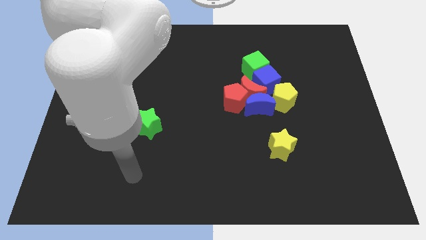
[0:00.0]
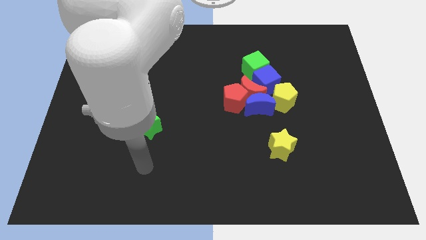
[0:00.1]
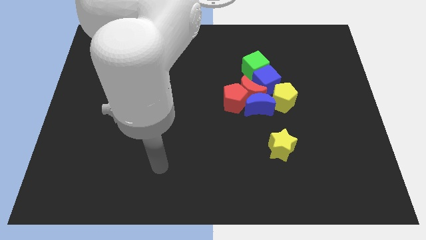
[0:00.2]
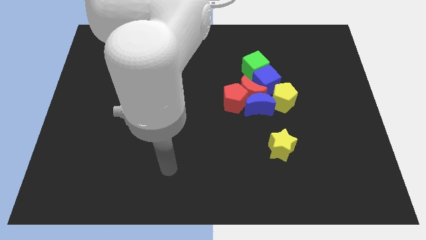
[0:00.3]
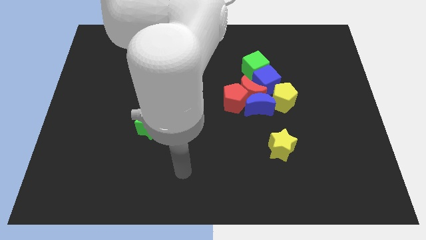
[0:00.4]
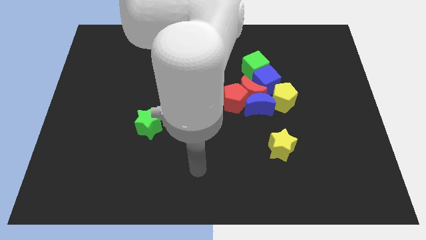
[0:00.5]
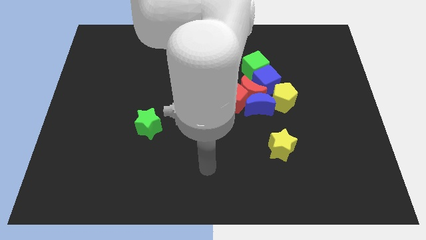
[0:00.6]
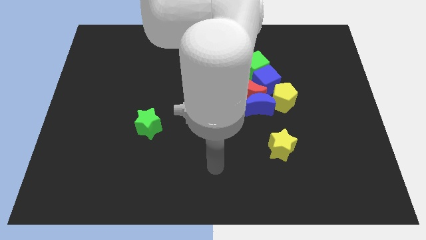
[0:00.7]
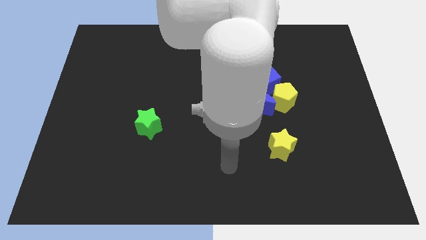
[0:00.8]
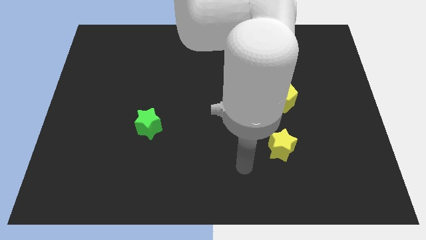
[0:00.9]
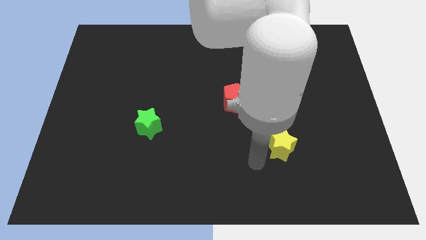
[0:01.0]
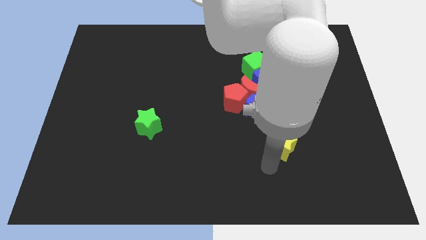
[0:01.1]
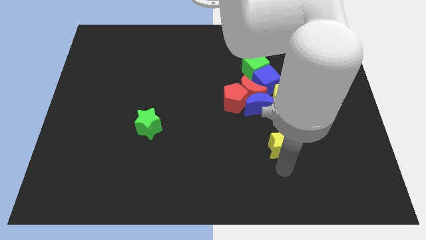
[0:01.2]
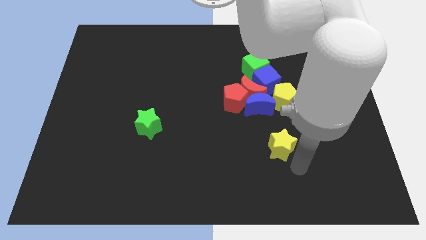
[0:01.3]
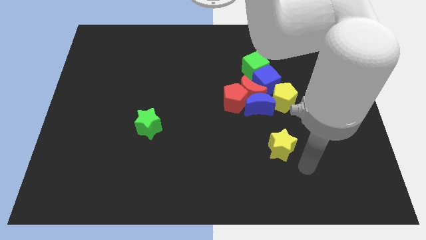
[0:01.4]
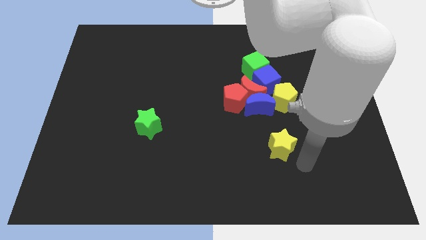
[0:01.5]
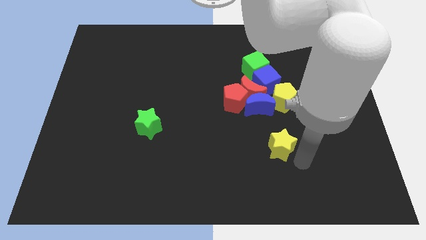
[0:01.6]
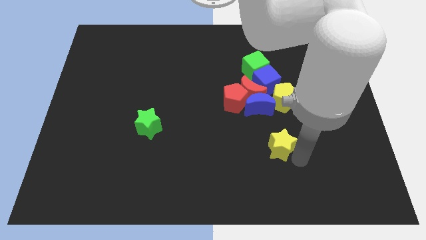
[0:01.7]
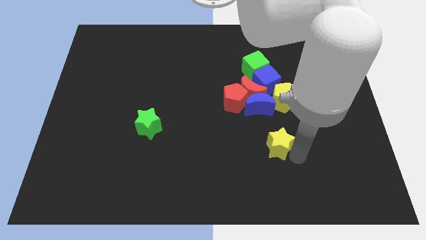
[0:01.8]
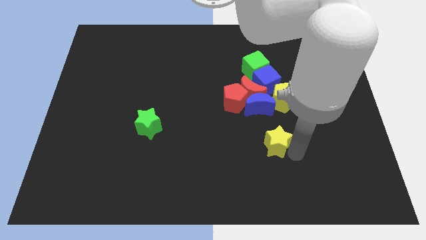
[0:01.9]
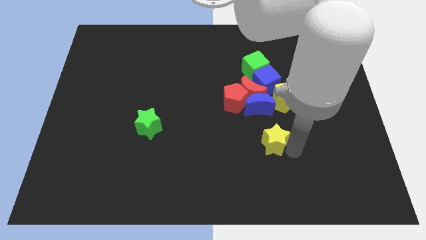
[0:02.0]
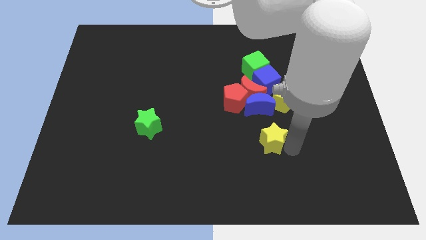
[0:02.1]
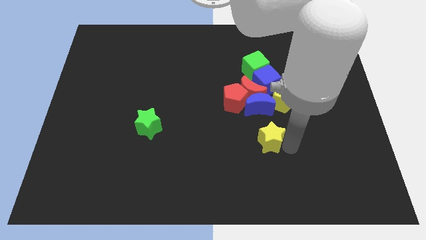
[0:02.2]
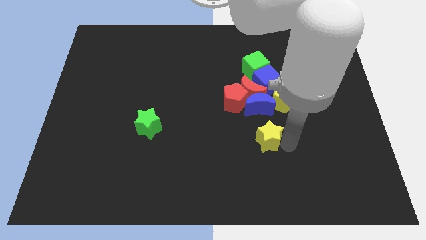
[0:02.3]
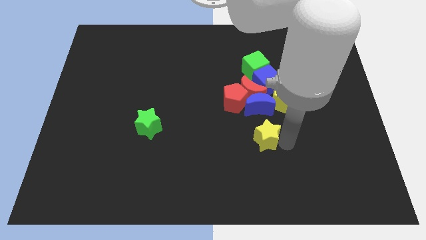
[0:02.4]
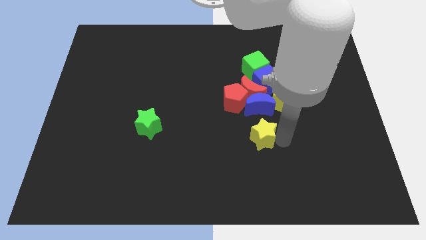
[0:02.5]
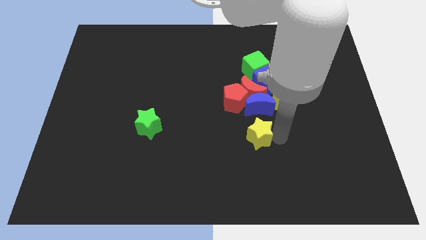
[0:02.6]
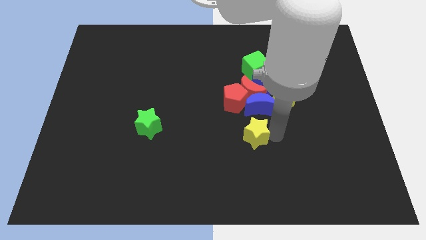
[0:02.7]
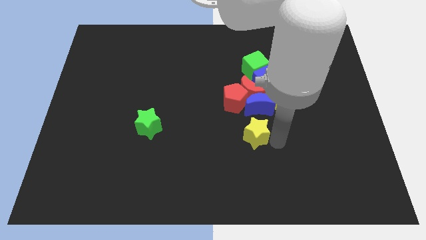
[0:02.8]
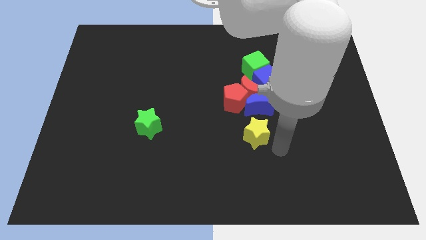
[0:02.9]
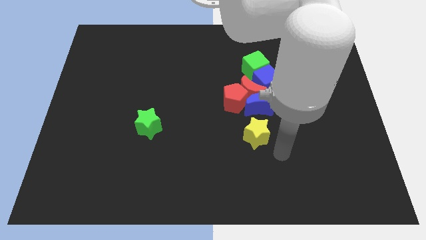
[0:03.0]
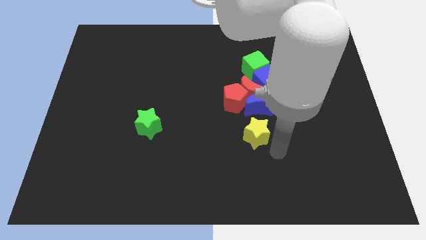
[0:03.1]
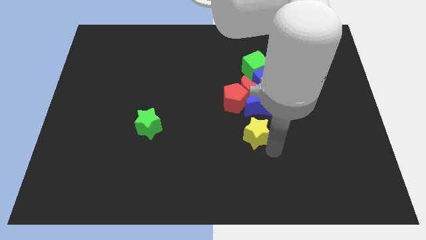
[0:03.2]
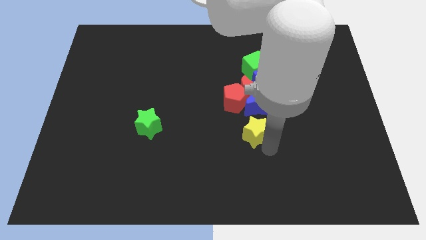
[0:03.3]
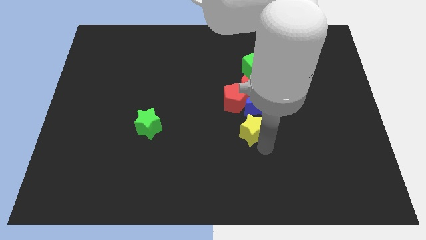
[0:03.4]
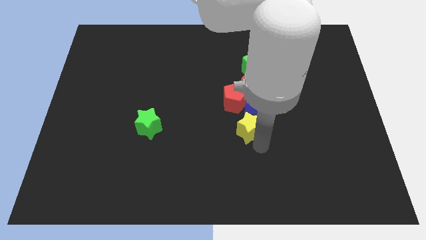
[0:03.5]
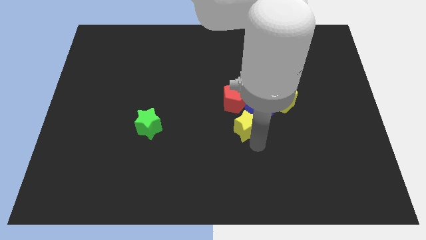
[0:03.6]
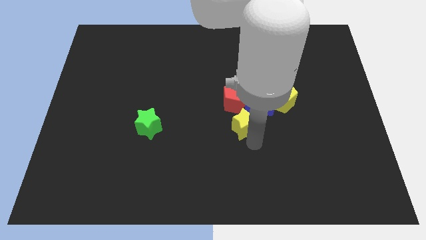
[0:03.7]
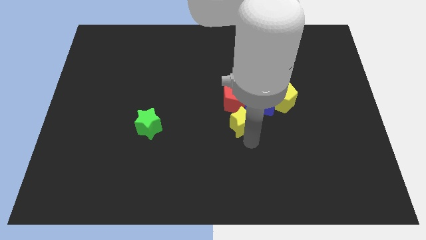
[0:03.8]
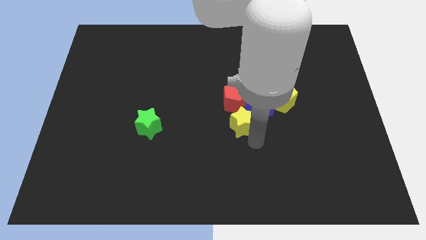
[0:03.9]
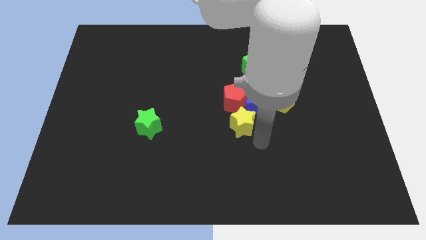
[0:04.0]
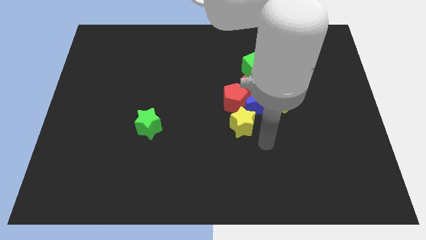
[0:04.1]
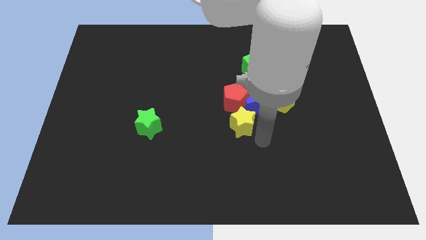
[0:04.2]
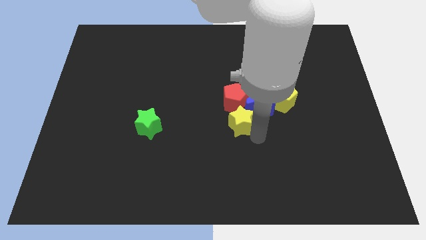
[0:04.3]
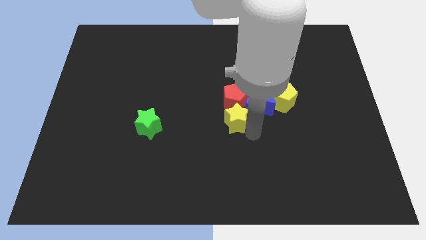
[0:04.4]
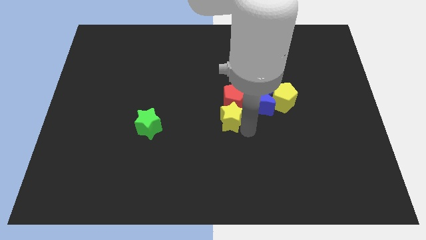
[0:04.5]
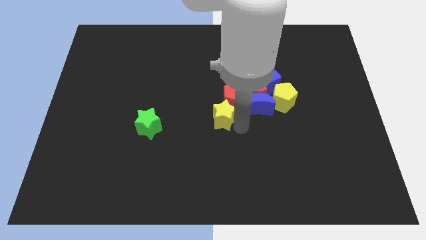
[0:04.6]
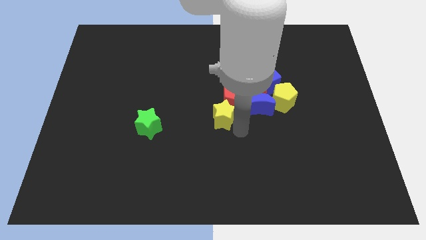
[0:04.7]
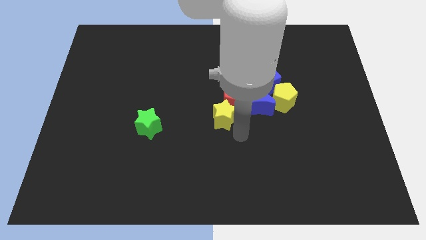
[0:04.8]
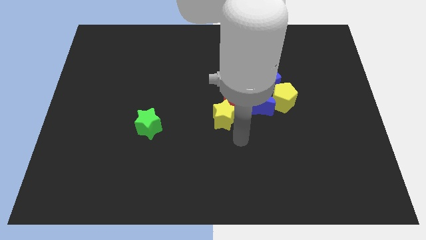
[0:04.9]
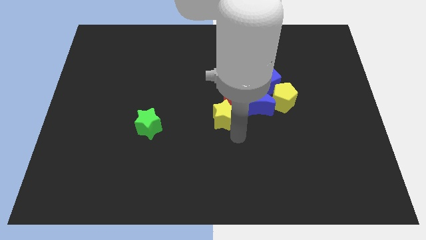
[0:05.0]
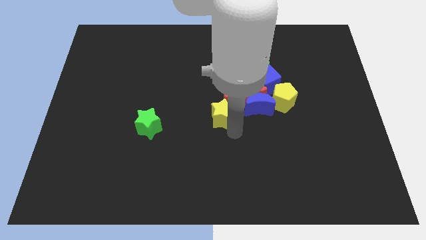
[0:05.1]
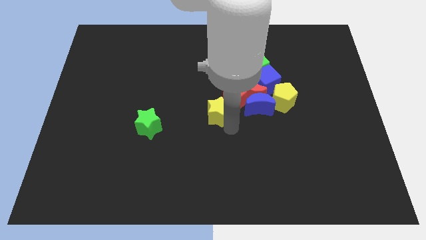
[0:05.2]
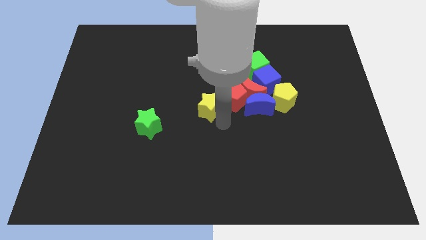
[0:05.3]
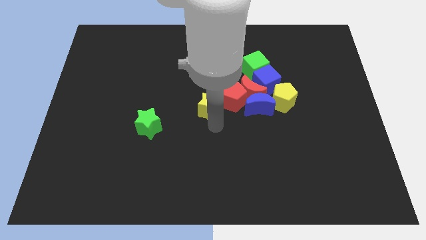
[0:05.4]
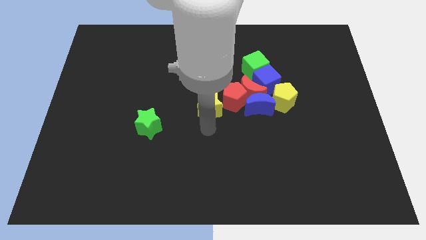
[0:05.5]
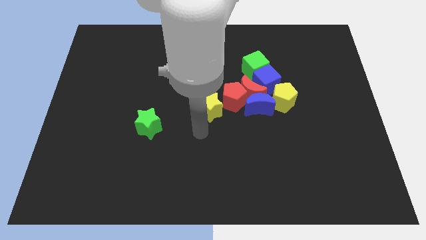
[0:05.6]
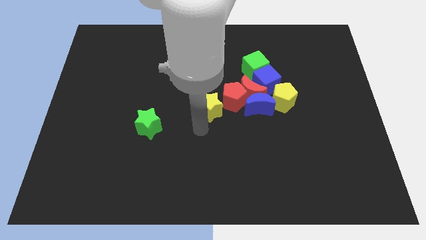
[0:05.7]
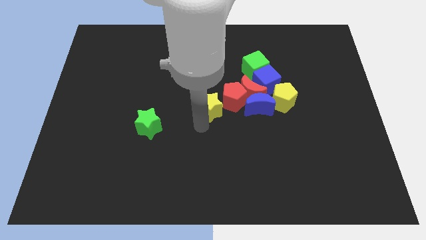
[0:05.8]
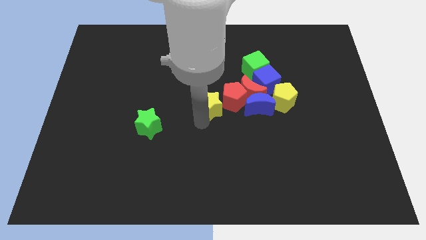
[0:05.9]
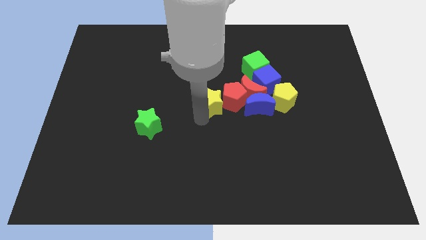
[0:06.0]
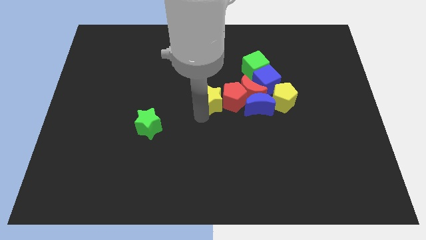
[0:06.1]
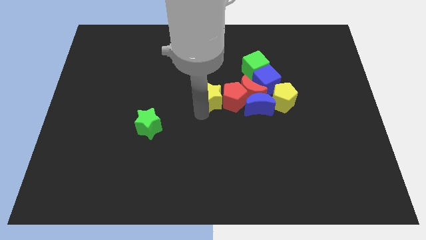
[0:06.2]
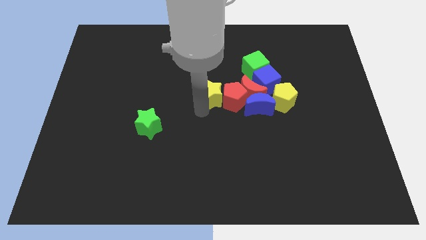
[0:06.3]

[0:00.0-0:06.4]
push the yellow star just left of the blue cube

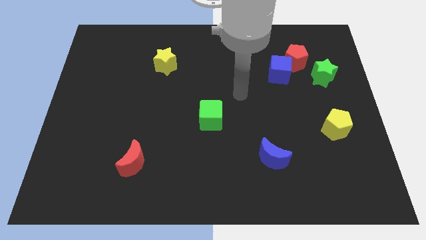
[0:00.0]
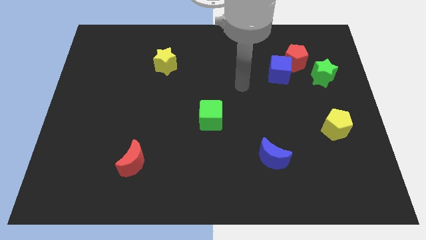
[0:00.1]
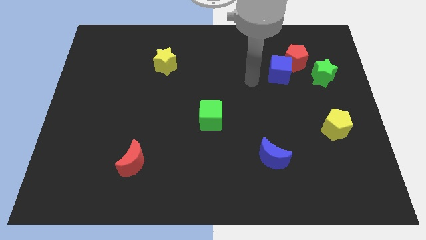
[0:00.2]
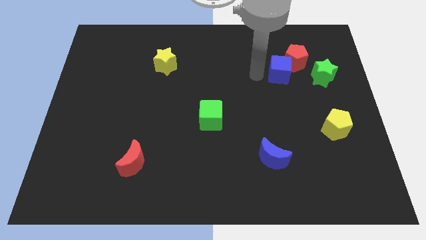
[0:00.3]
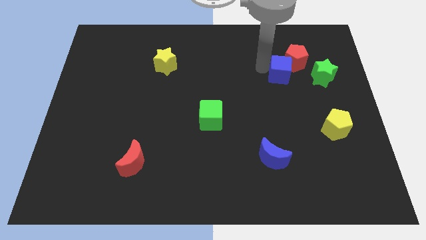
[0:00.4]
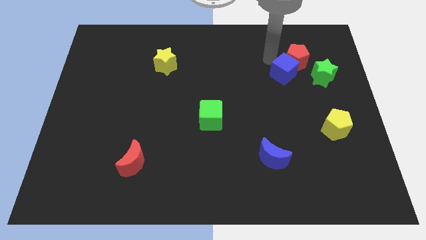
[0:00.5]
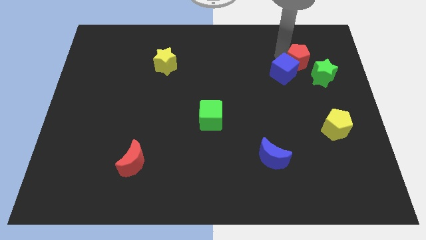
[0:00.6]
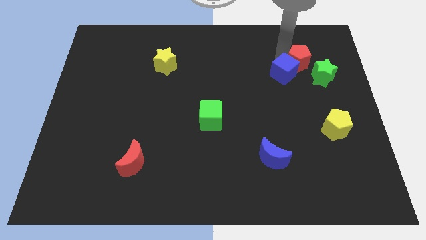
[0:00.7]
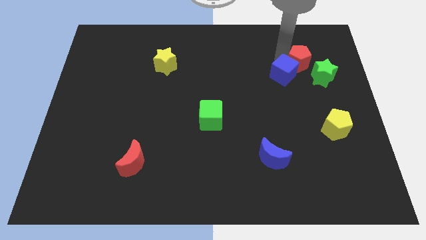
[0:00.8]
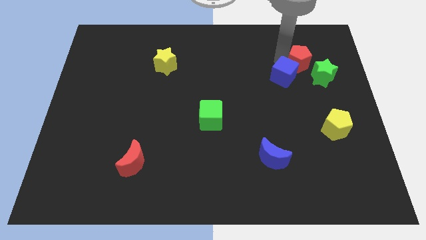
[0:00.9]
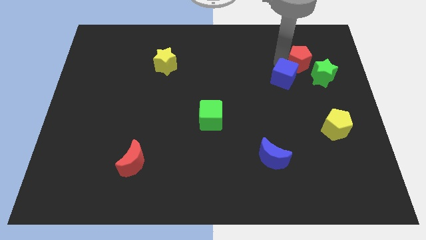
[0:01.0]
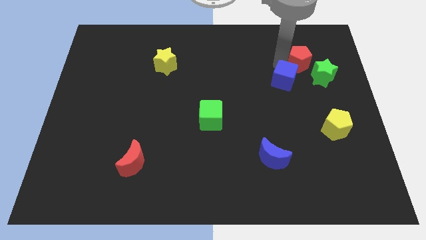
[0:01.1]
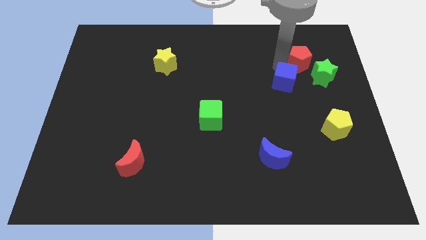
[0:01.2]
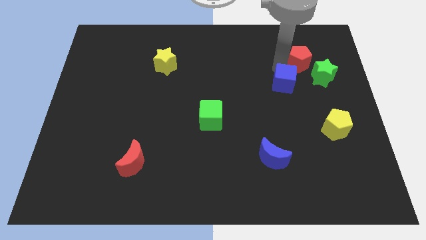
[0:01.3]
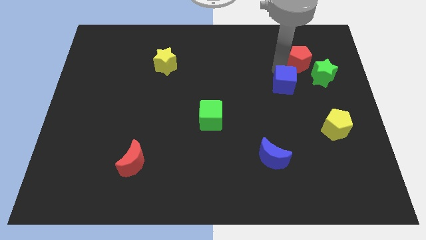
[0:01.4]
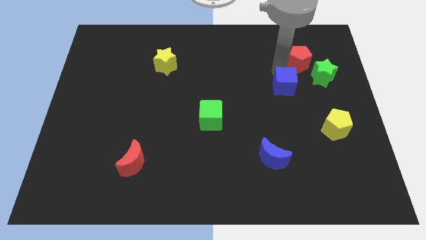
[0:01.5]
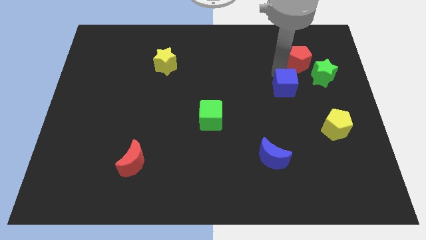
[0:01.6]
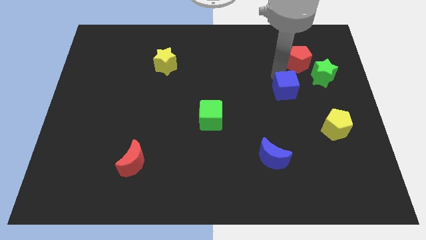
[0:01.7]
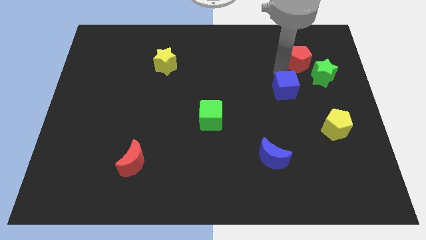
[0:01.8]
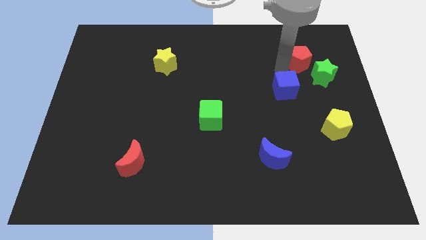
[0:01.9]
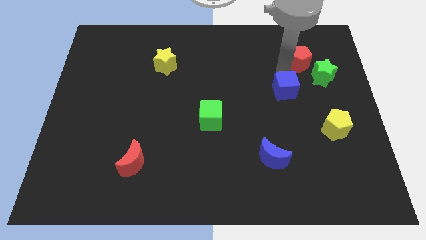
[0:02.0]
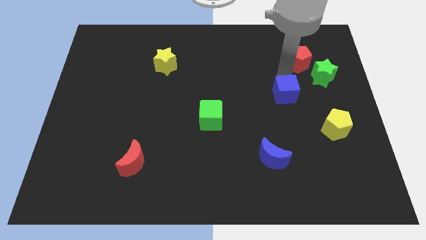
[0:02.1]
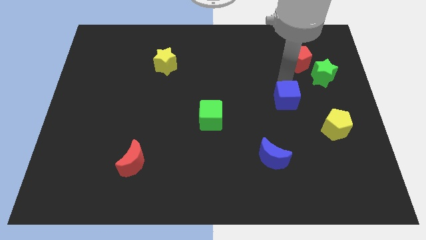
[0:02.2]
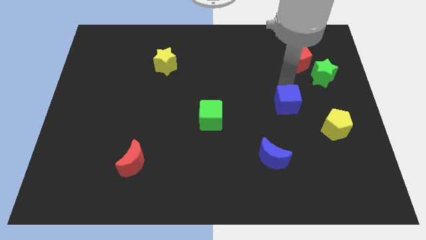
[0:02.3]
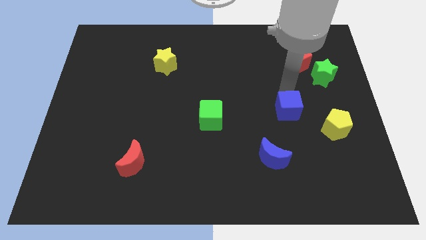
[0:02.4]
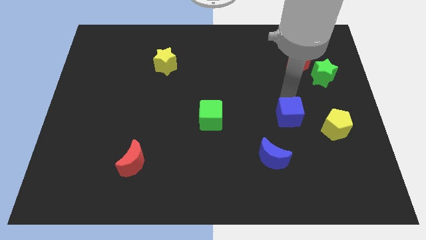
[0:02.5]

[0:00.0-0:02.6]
put the blue cube to the left side of the yellow pentagon
